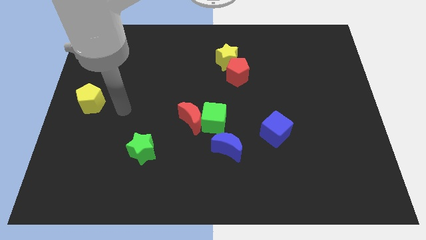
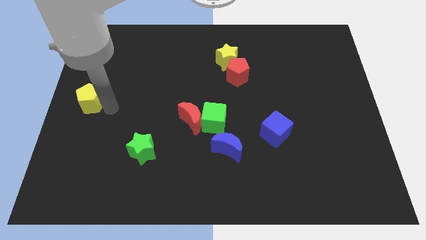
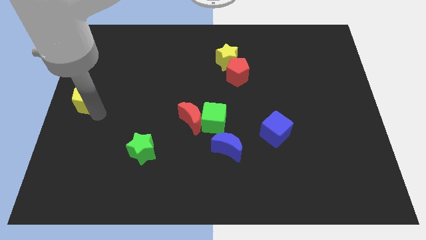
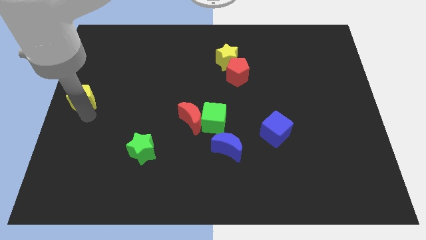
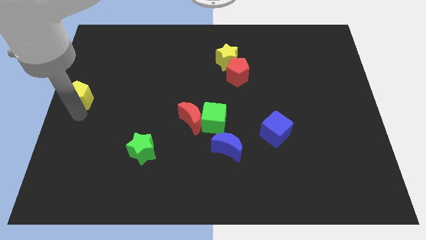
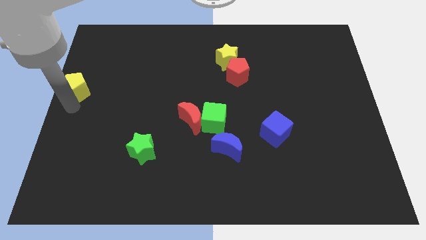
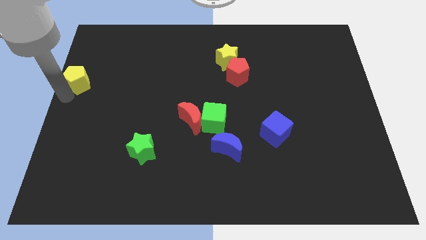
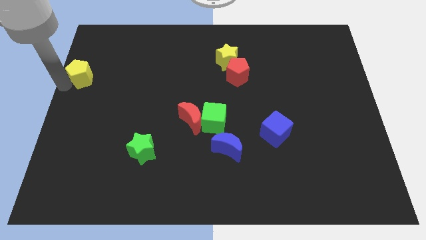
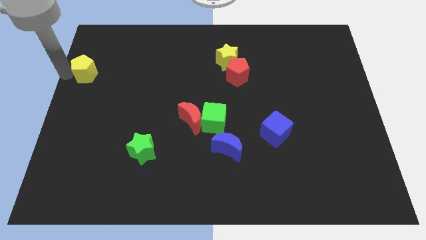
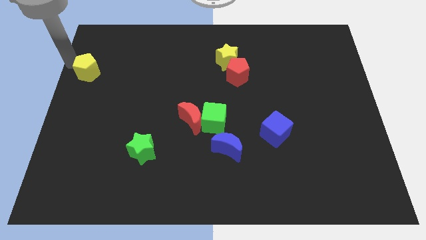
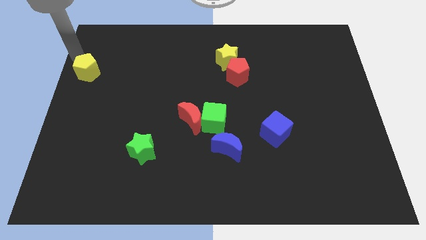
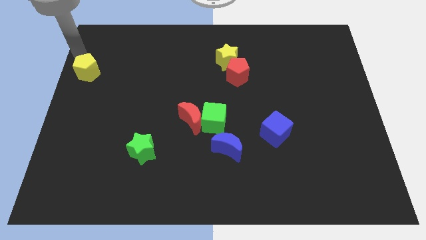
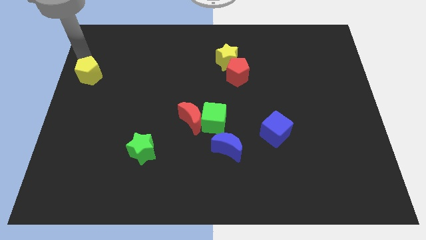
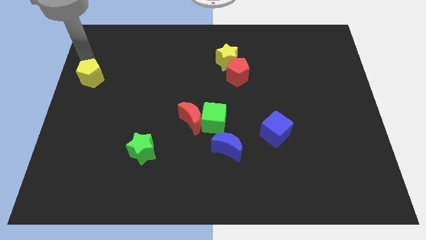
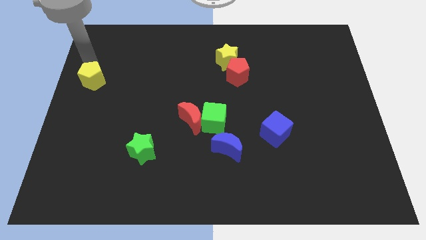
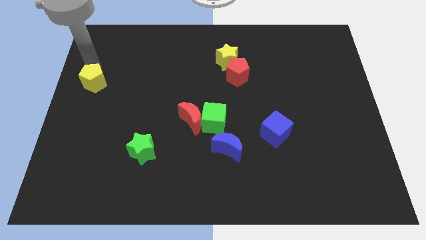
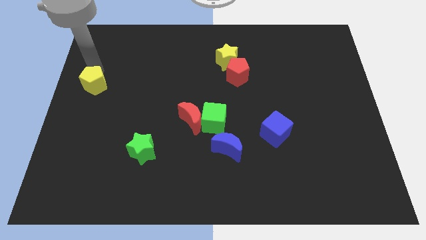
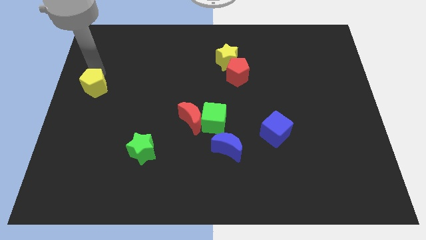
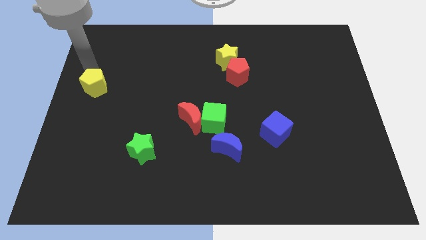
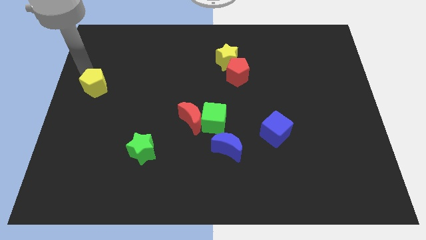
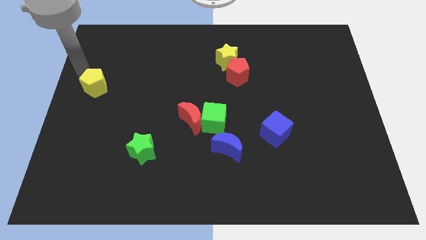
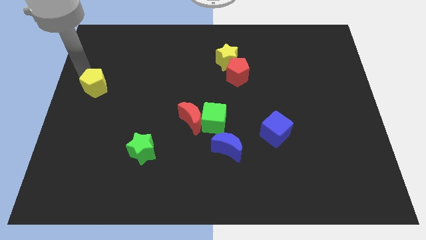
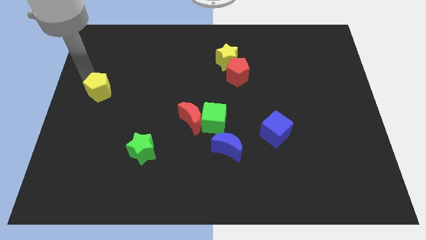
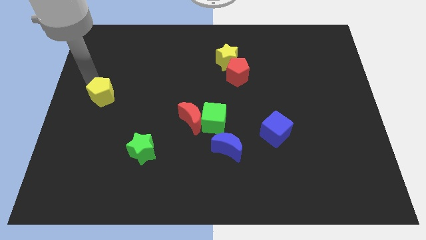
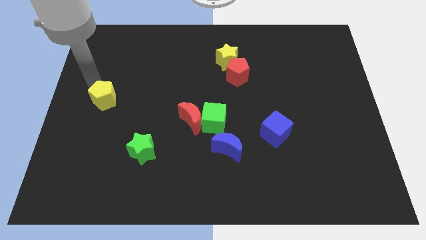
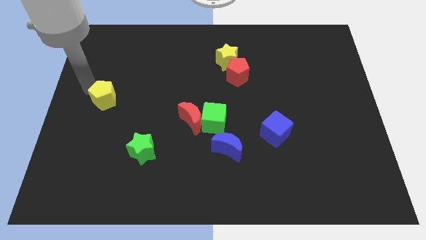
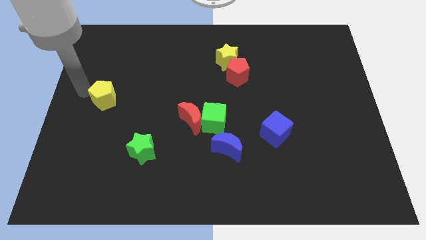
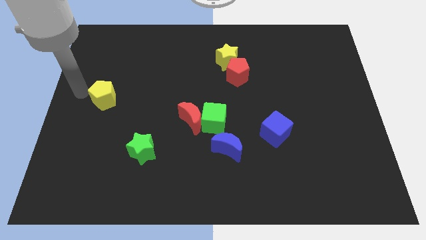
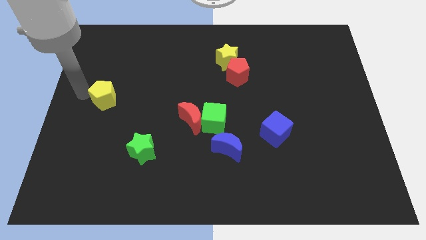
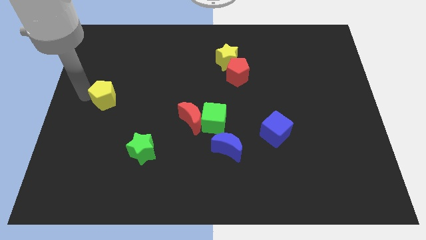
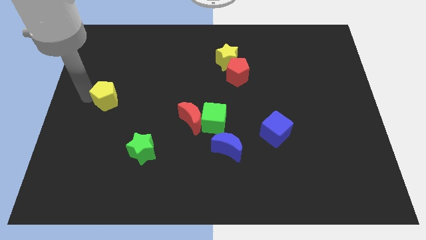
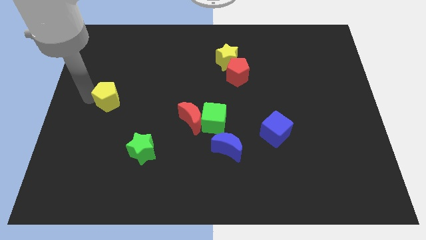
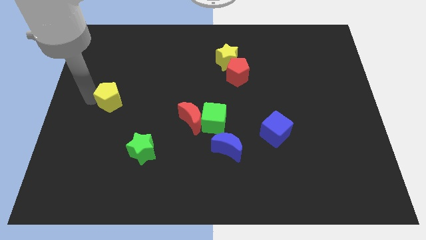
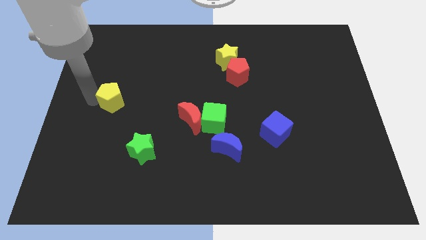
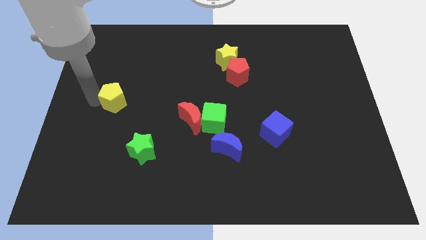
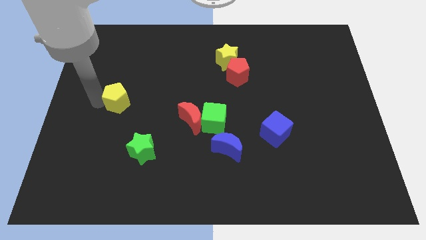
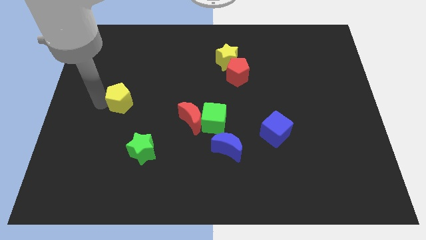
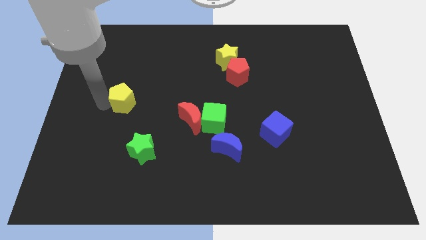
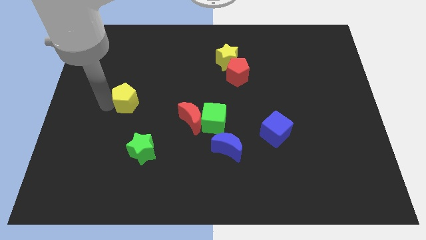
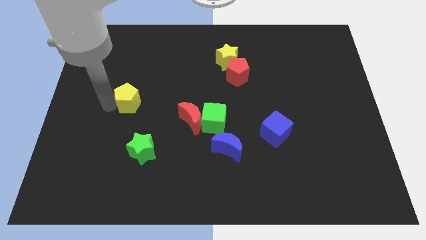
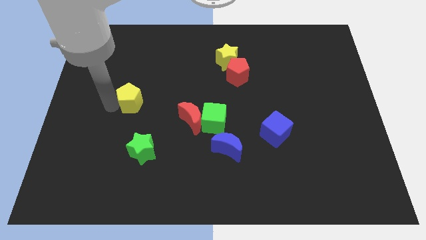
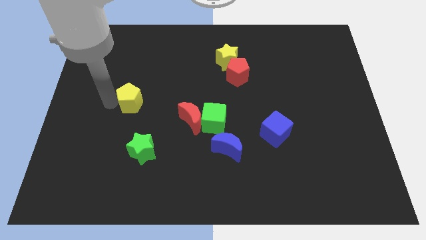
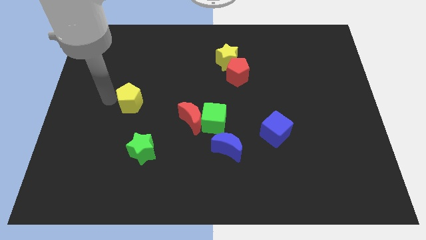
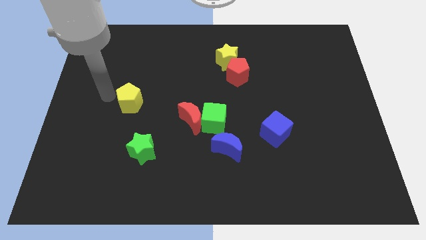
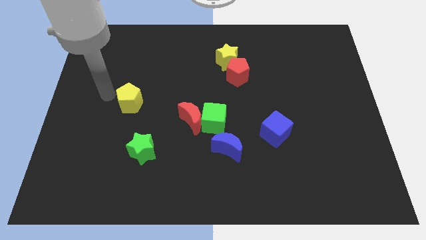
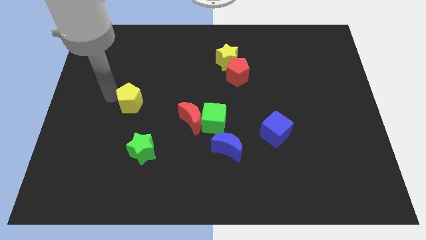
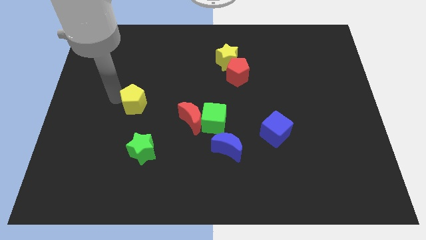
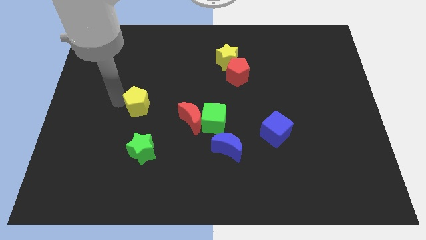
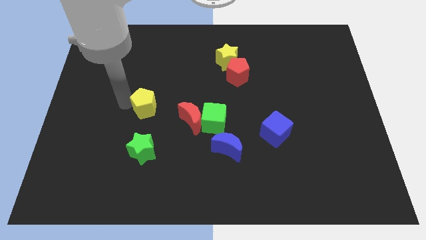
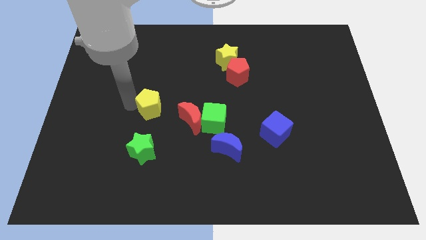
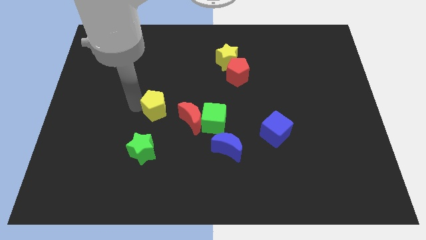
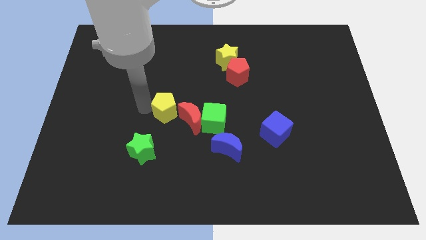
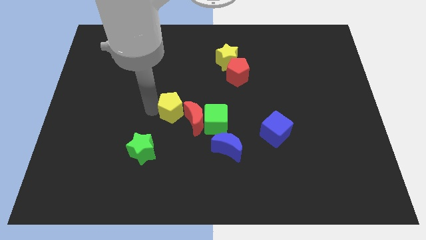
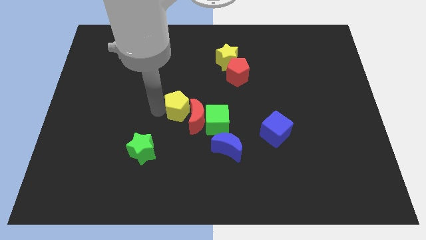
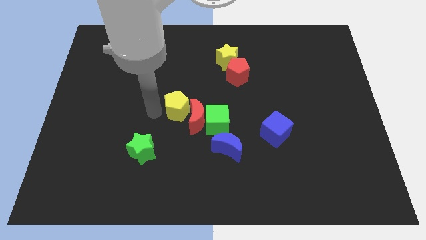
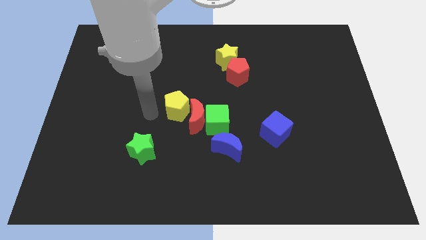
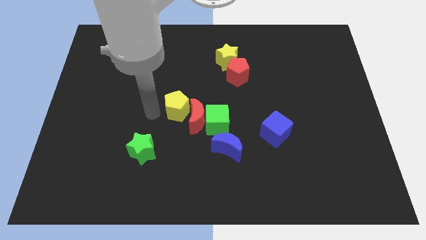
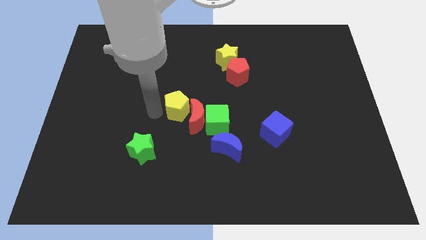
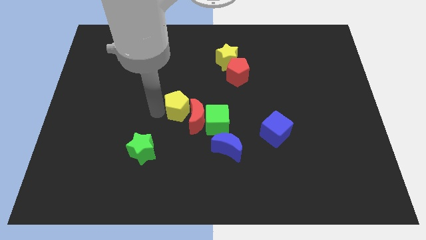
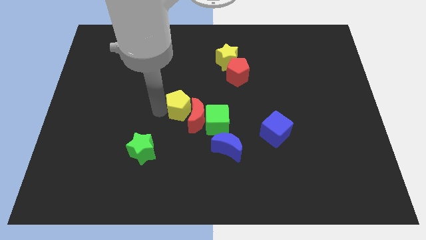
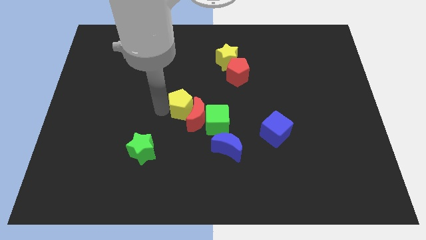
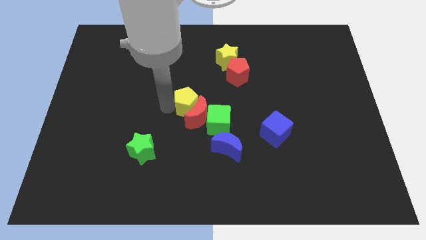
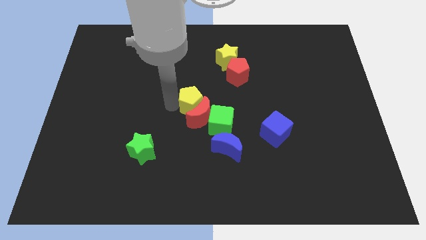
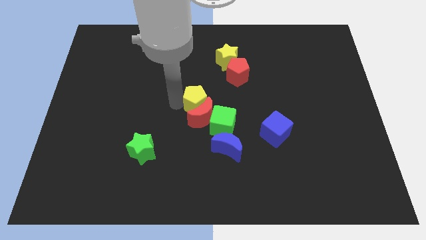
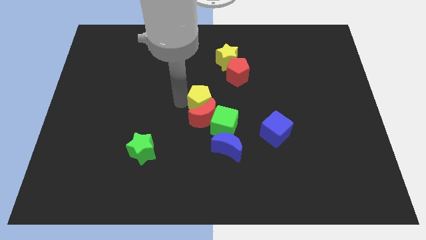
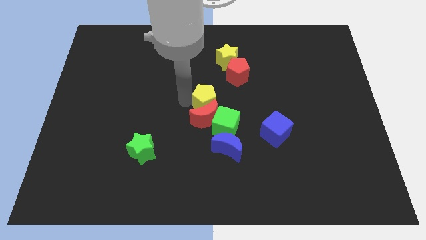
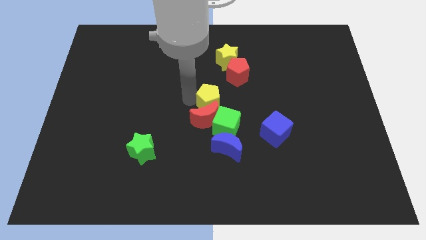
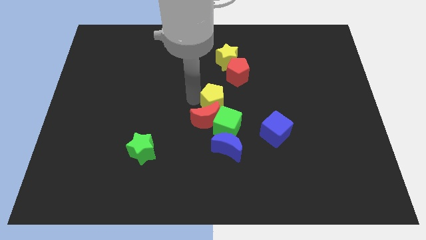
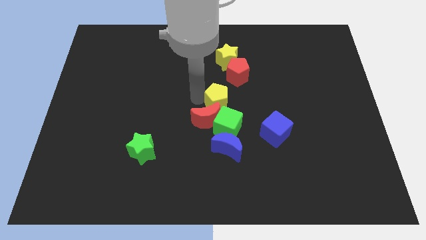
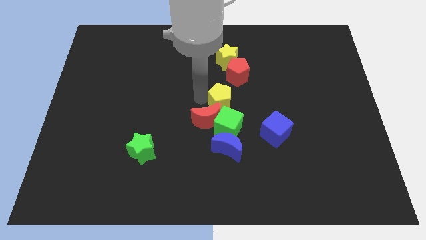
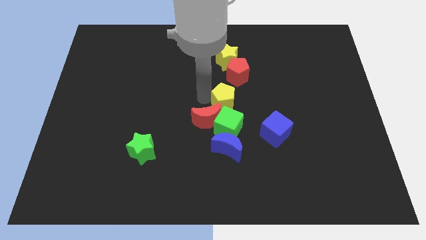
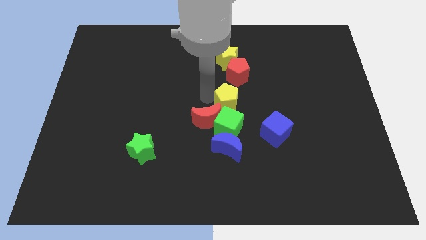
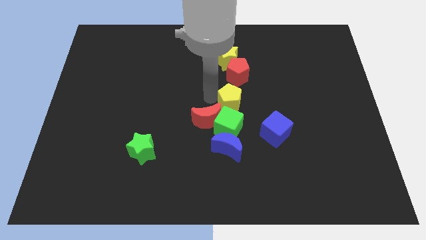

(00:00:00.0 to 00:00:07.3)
push the yellow pentagon to the top right side of the green cube
